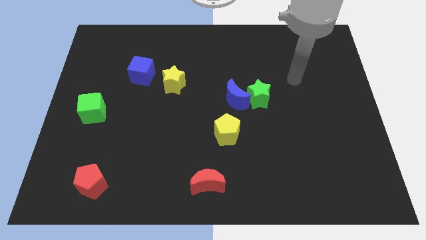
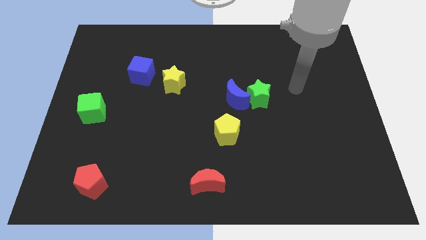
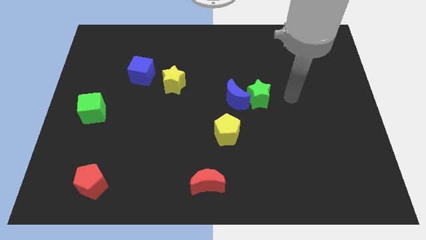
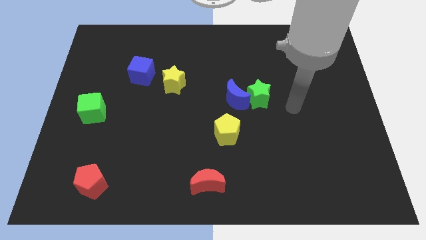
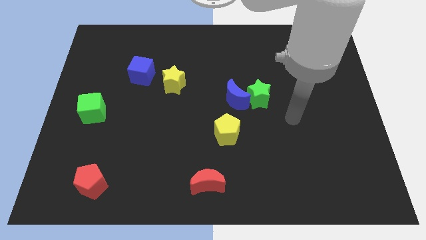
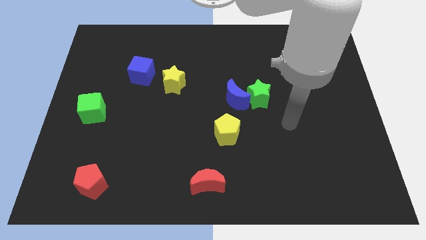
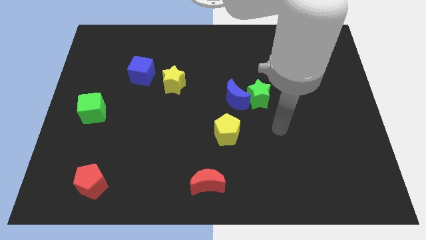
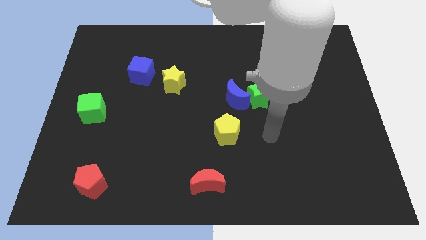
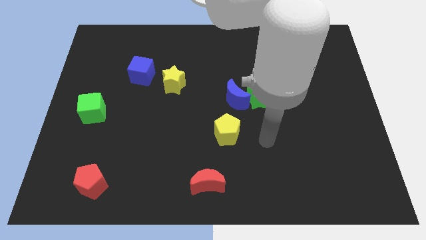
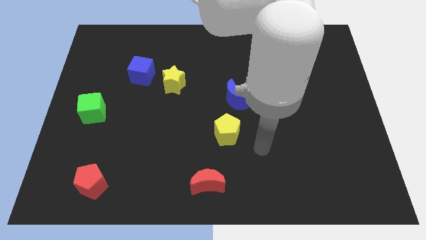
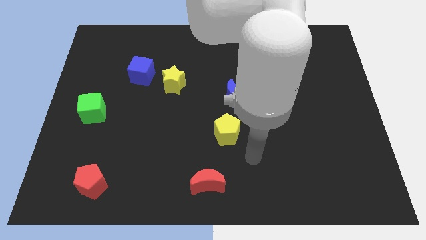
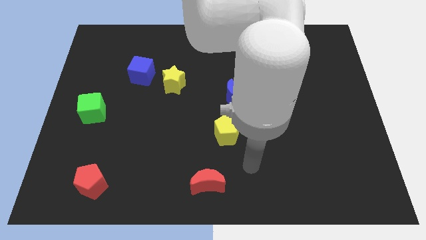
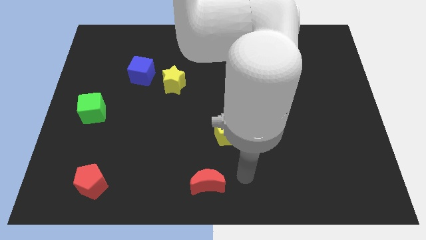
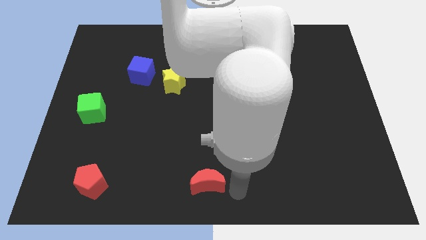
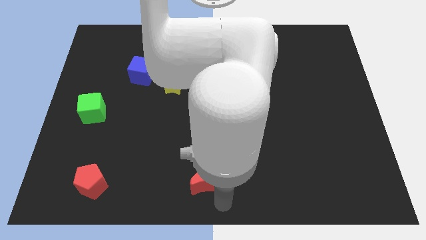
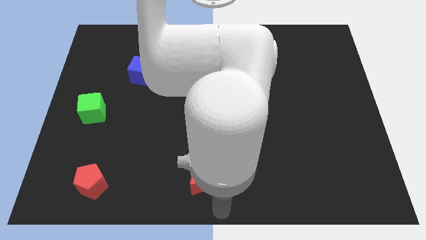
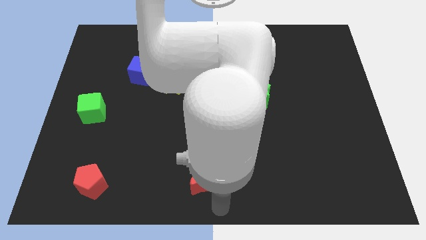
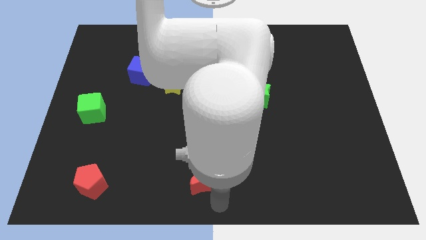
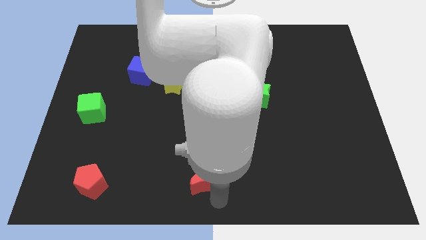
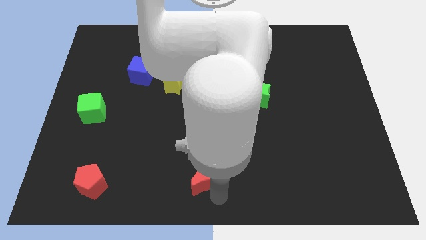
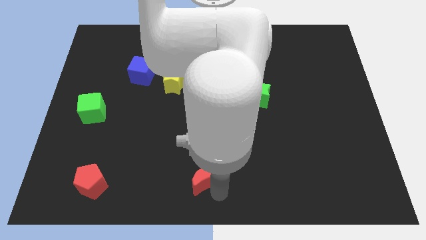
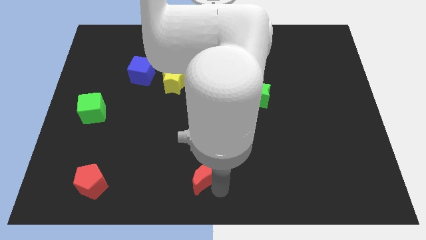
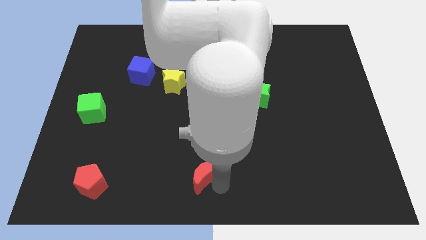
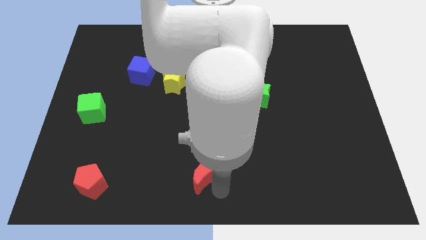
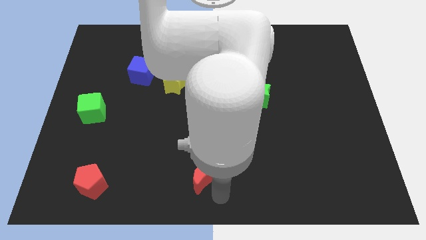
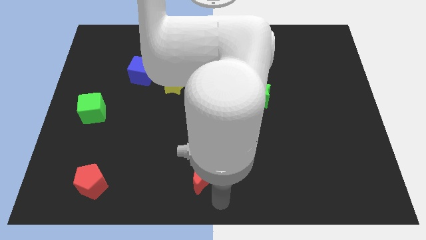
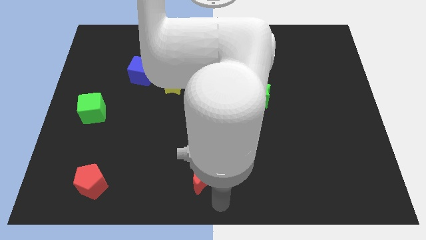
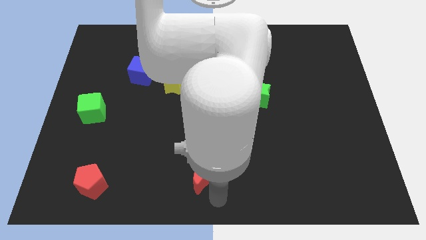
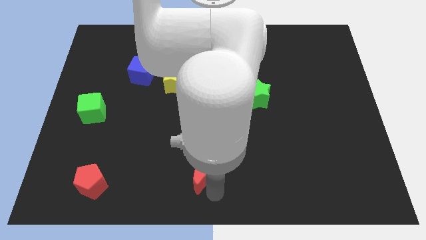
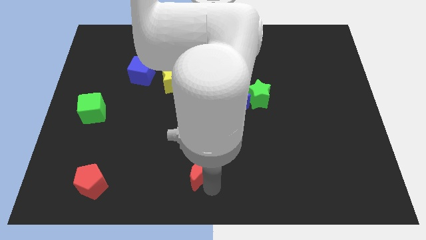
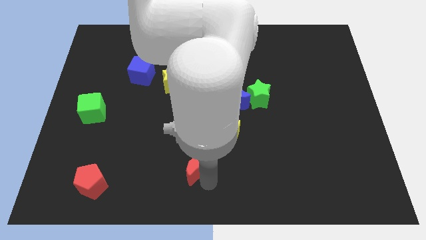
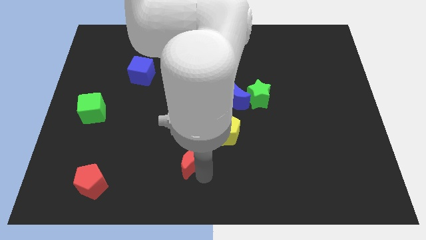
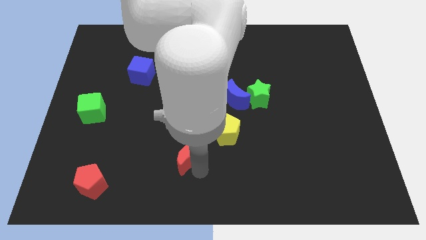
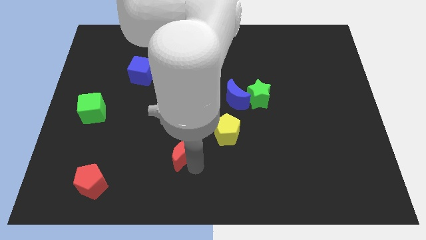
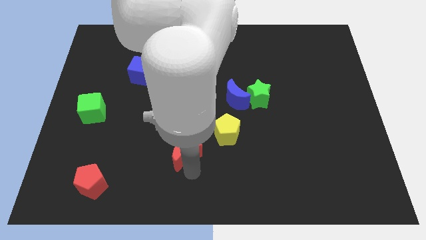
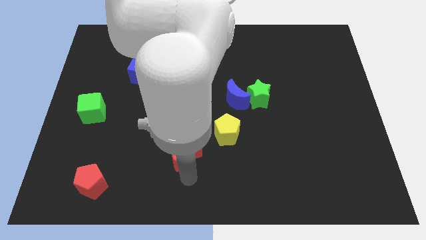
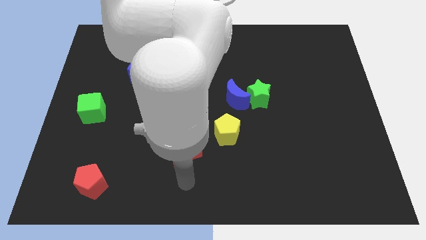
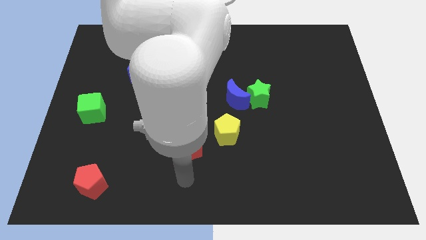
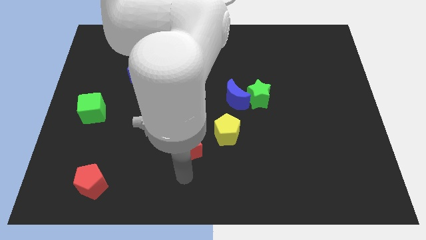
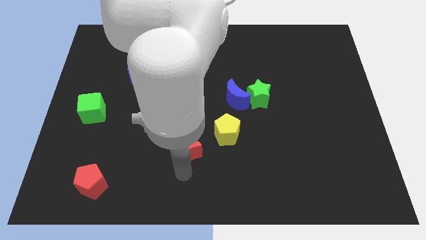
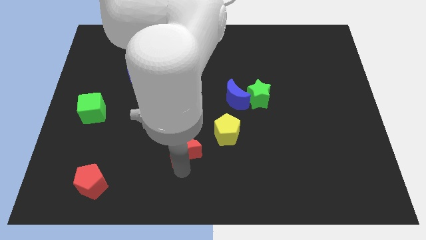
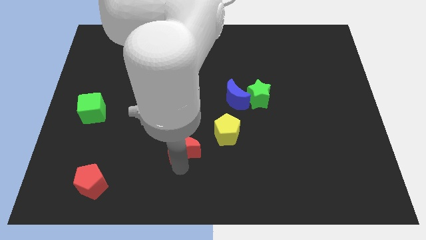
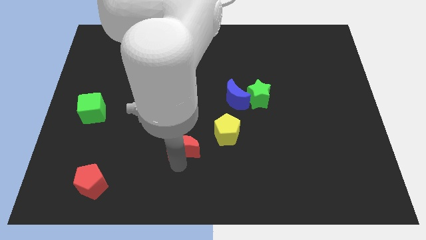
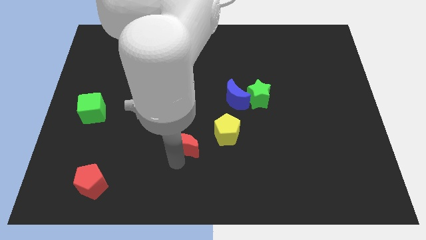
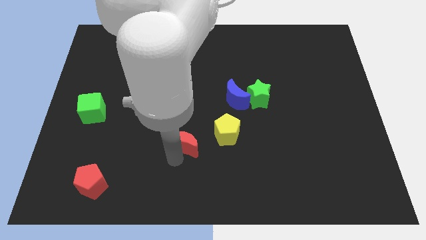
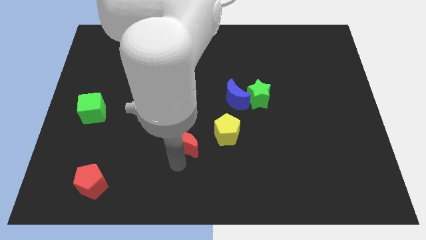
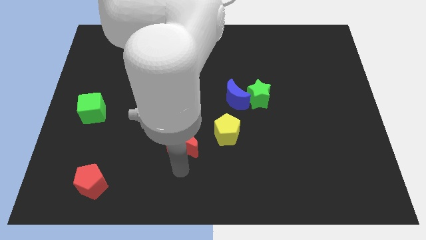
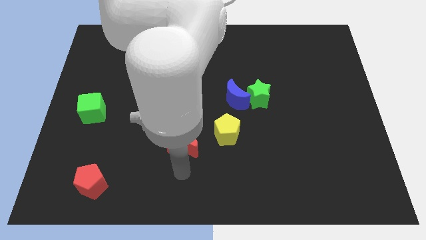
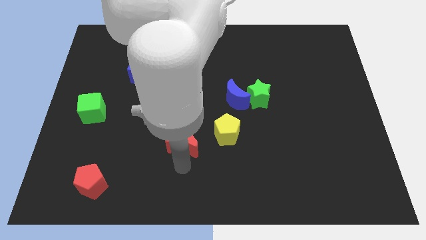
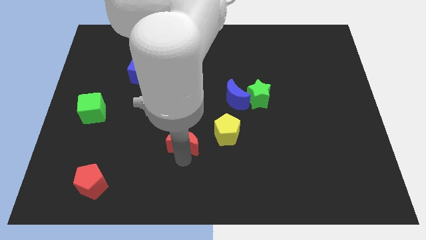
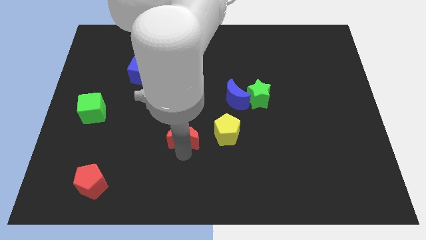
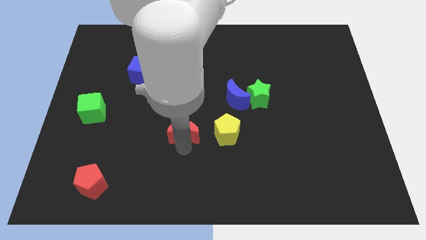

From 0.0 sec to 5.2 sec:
push the red moon to the center

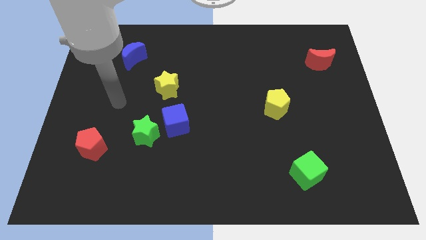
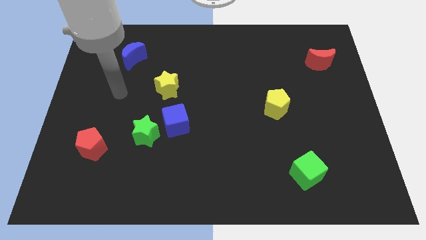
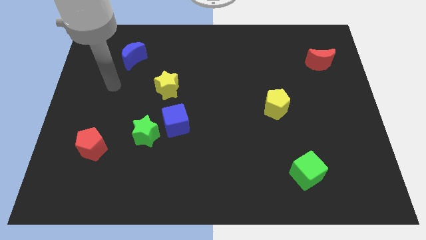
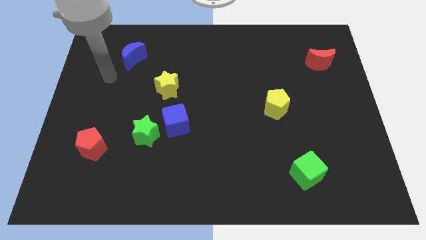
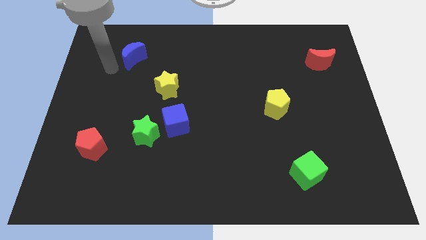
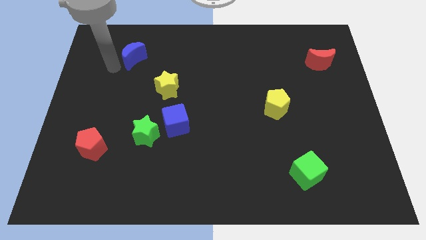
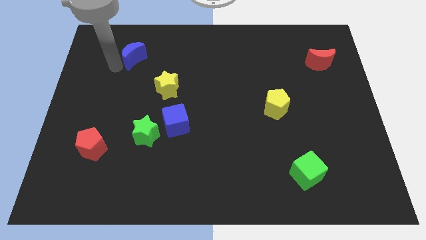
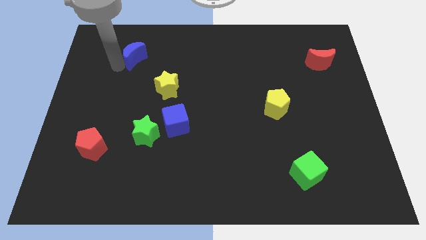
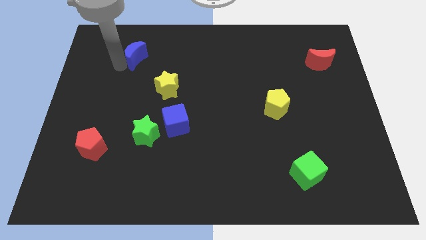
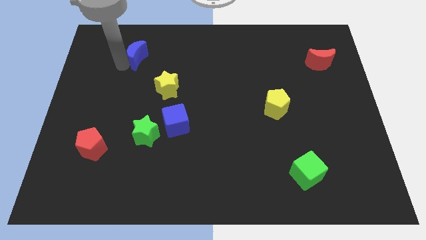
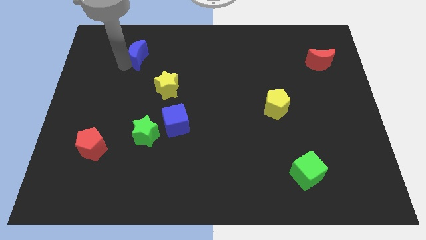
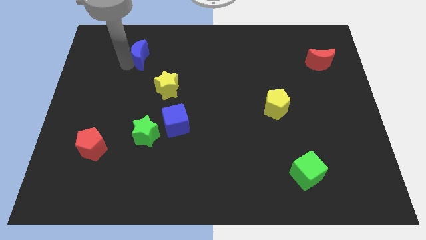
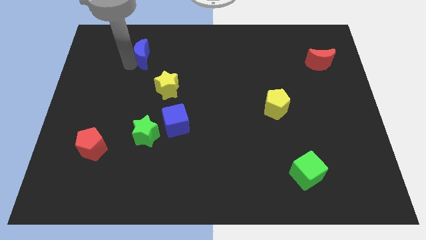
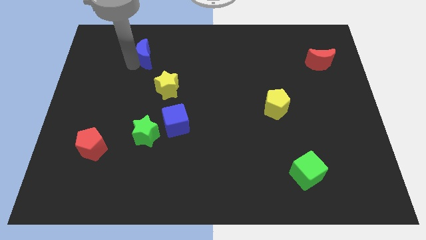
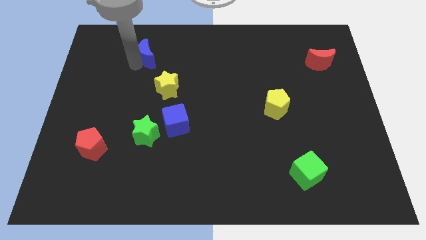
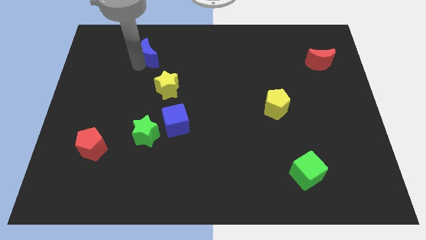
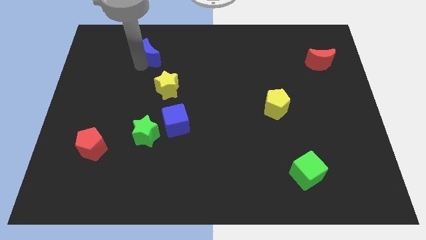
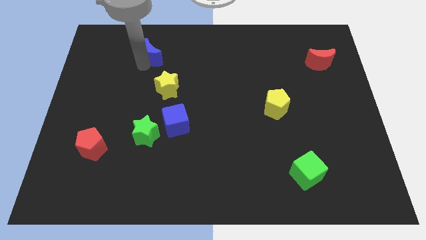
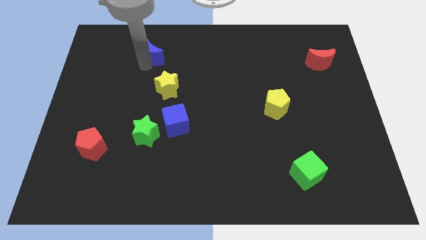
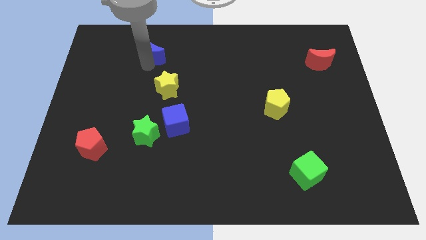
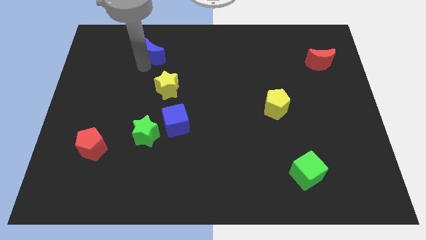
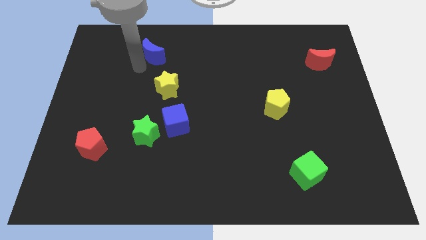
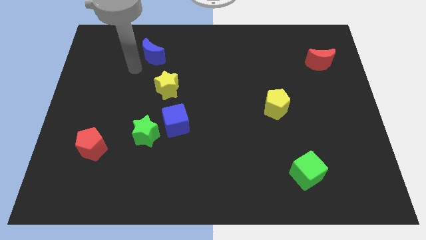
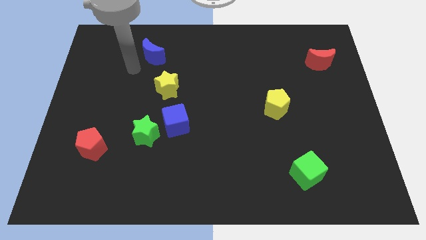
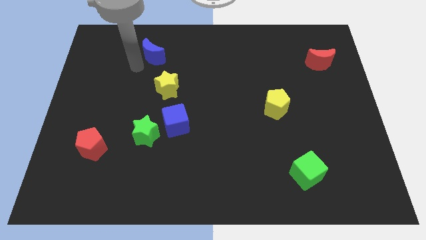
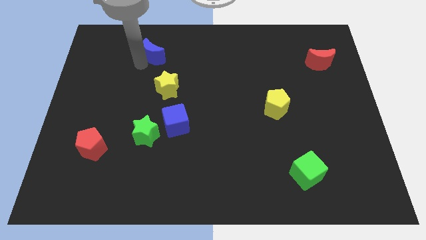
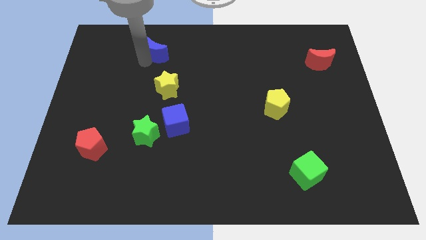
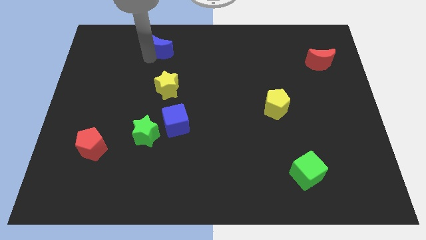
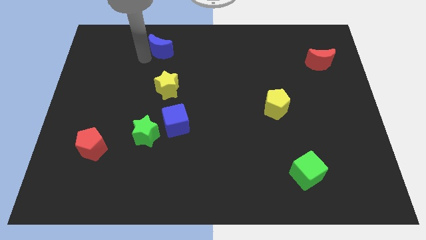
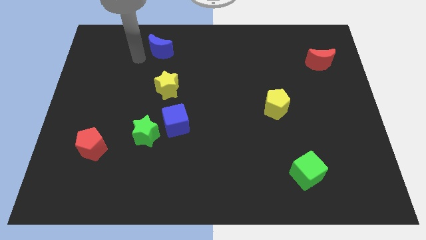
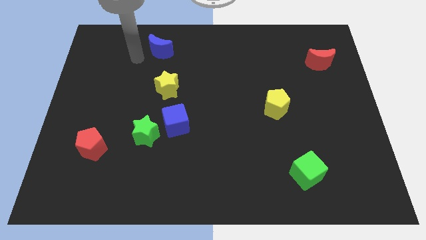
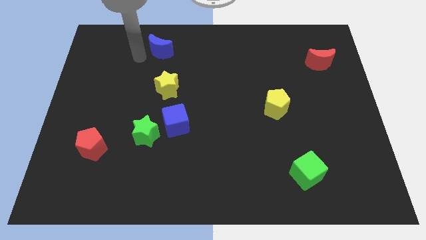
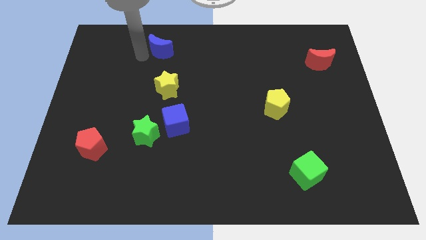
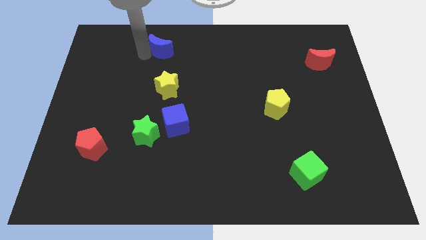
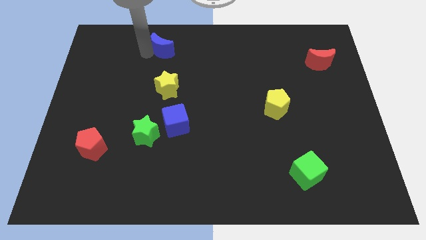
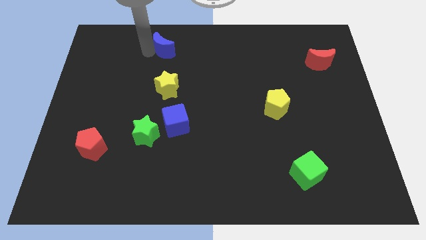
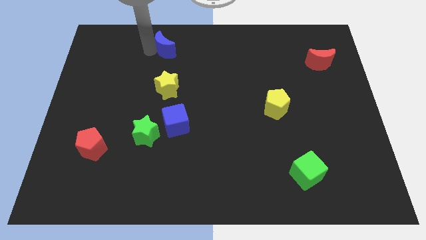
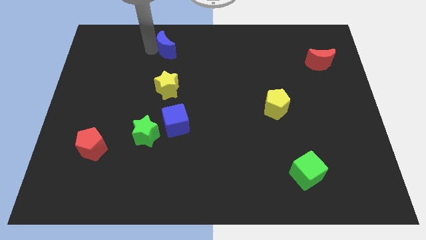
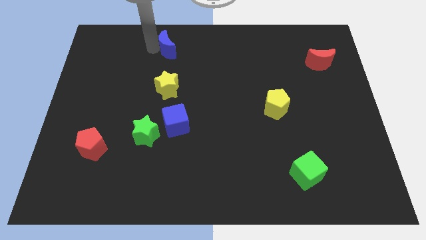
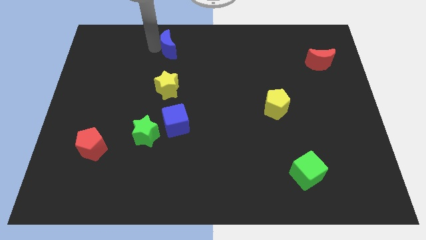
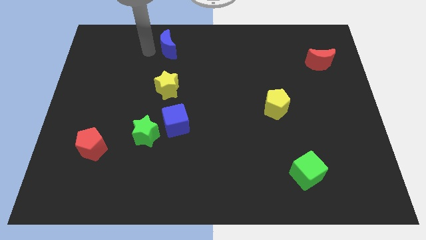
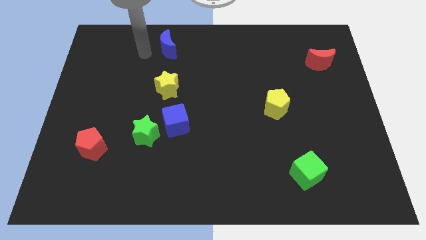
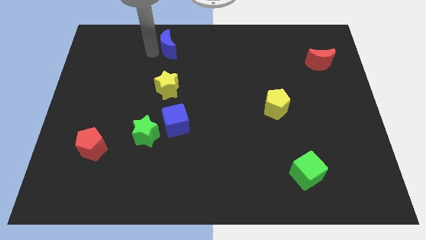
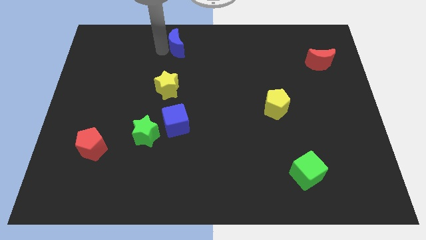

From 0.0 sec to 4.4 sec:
put the blue moon to the top side
